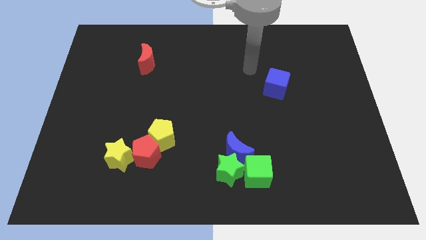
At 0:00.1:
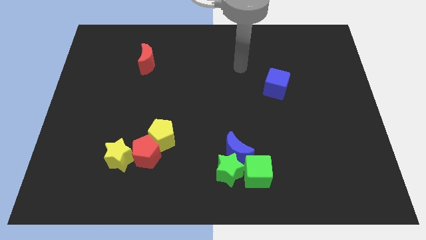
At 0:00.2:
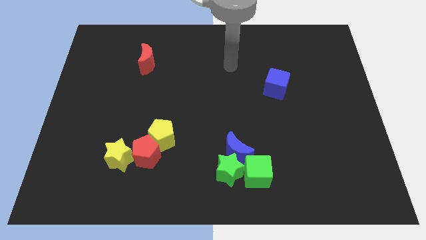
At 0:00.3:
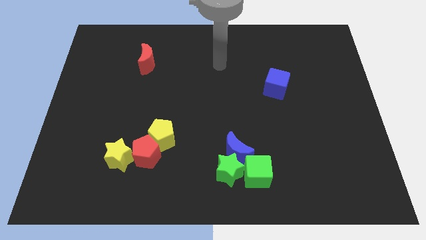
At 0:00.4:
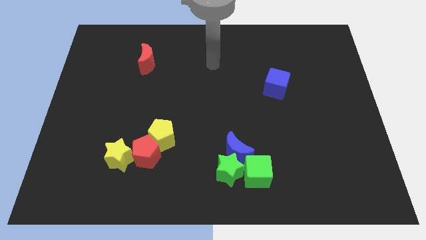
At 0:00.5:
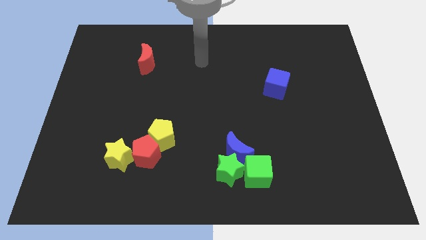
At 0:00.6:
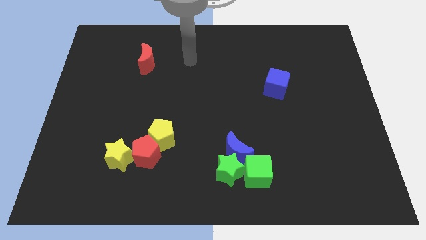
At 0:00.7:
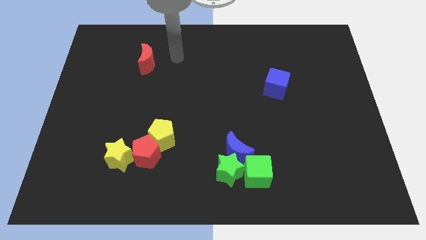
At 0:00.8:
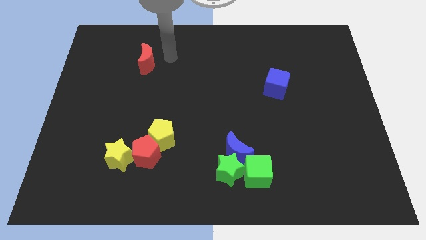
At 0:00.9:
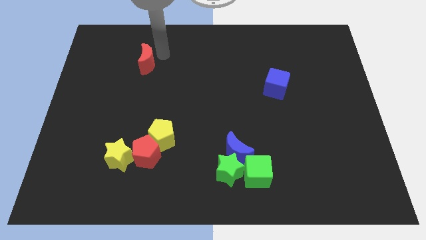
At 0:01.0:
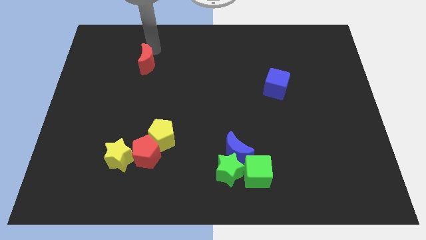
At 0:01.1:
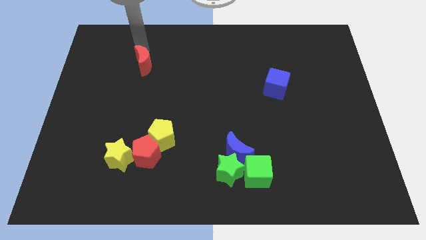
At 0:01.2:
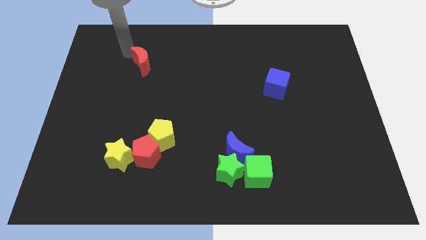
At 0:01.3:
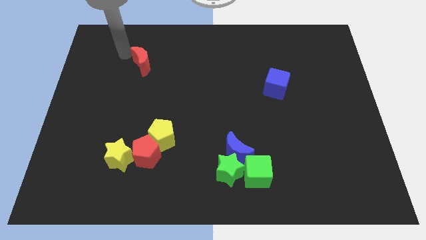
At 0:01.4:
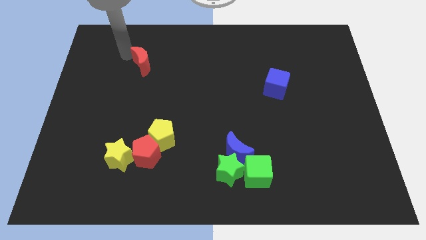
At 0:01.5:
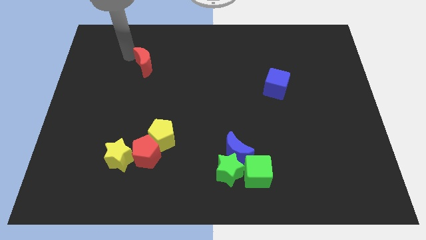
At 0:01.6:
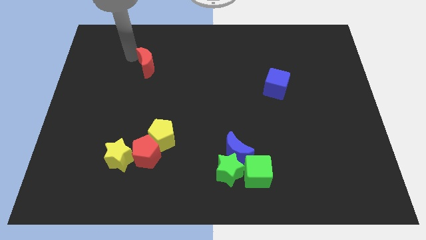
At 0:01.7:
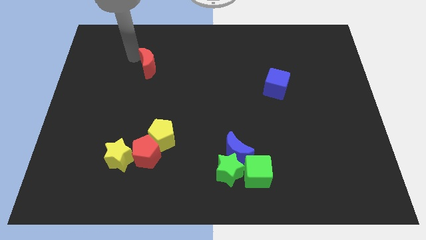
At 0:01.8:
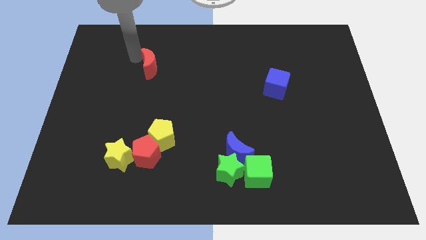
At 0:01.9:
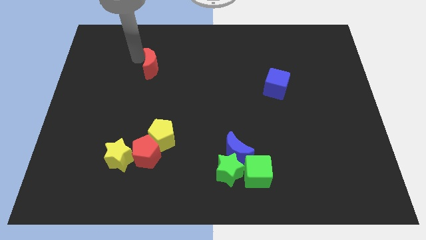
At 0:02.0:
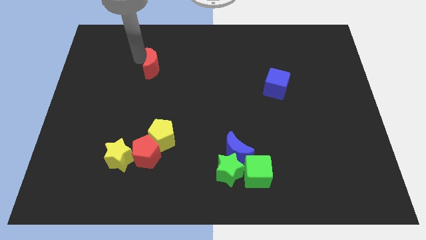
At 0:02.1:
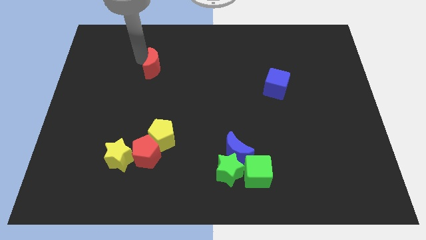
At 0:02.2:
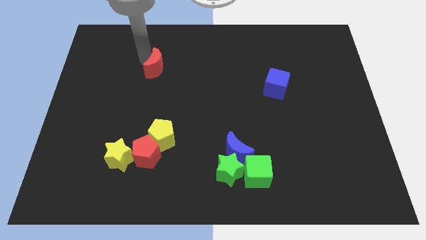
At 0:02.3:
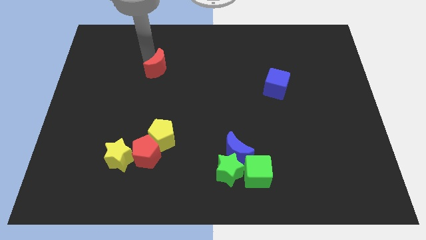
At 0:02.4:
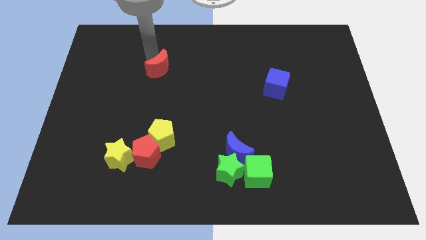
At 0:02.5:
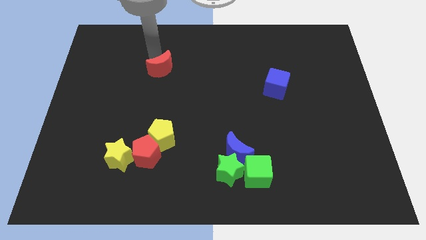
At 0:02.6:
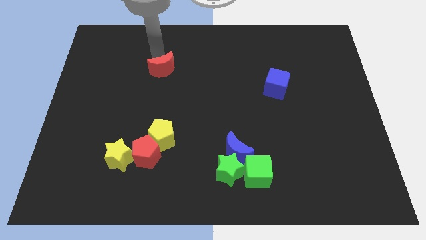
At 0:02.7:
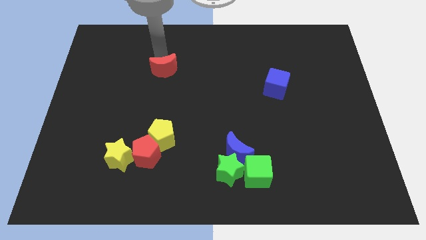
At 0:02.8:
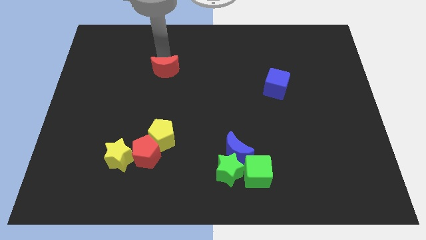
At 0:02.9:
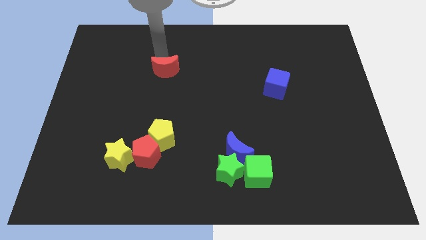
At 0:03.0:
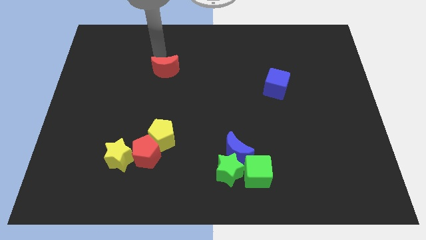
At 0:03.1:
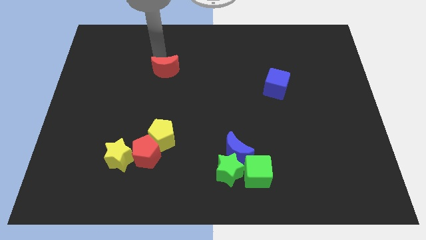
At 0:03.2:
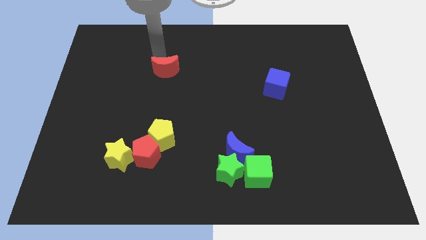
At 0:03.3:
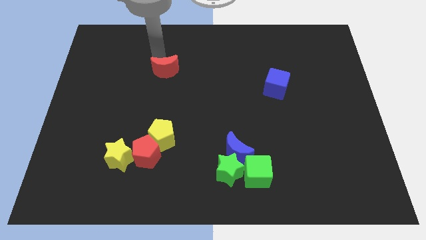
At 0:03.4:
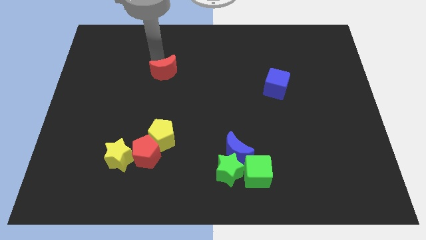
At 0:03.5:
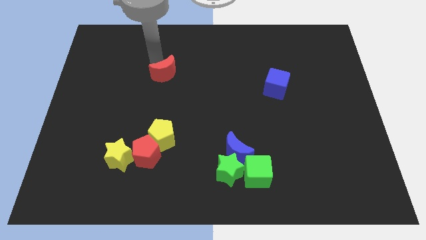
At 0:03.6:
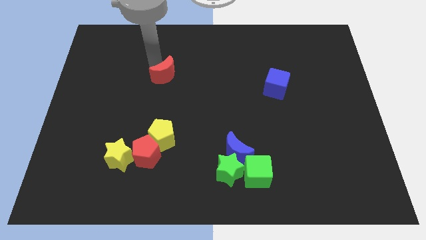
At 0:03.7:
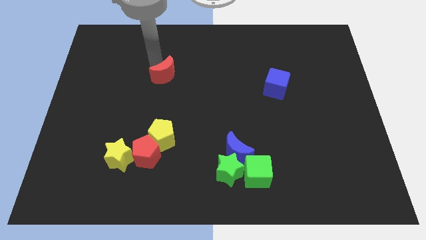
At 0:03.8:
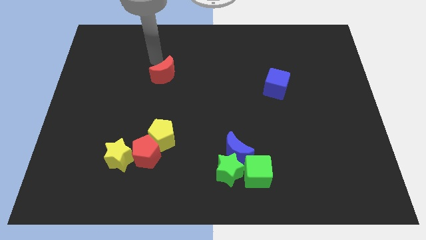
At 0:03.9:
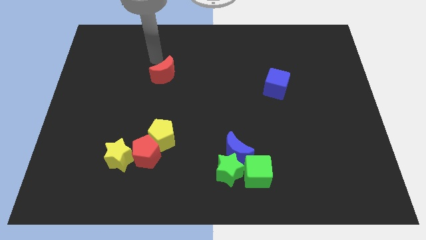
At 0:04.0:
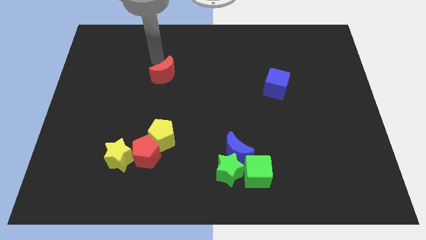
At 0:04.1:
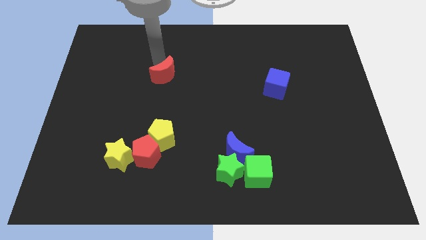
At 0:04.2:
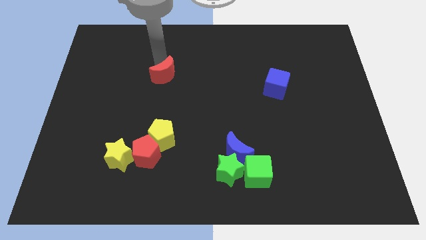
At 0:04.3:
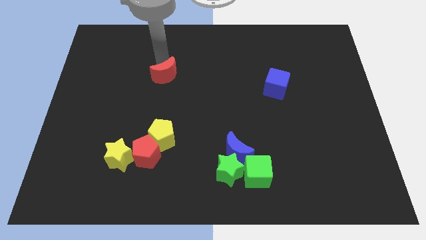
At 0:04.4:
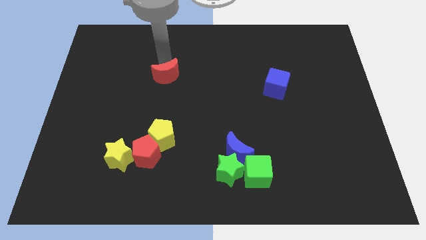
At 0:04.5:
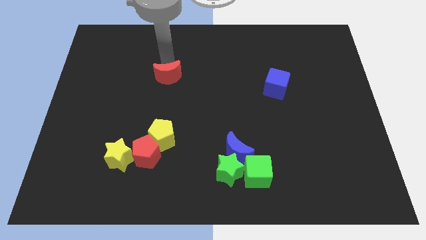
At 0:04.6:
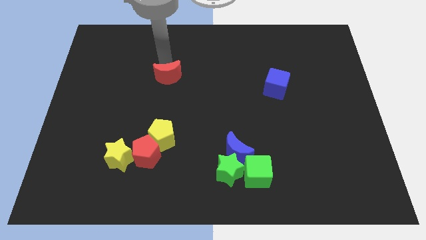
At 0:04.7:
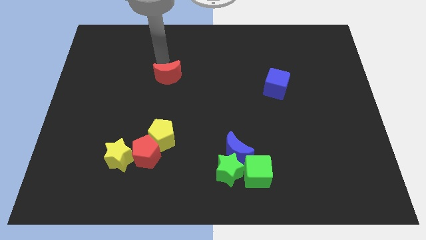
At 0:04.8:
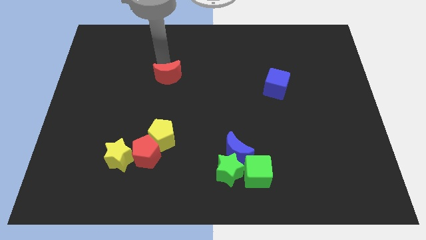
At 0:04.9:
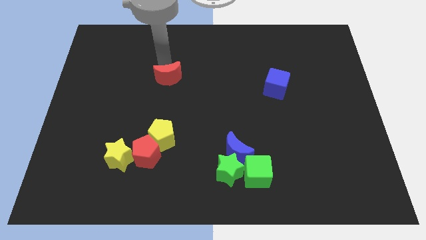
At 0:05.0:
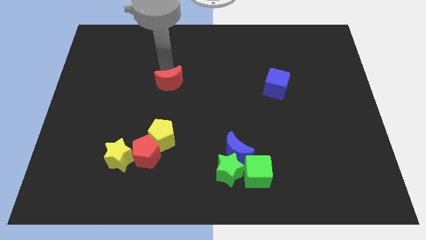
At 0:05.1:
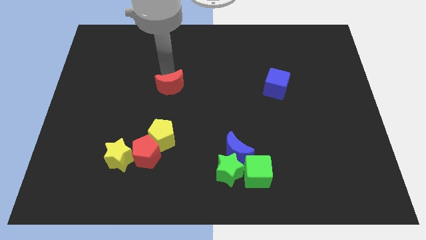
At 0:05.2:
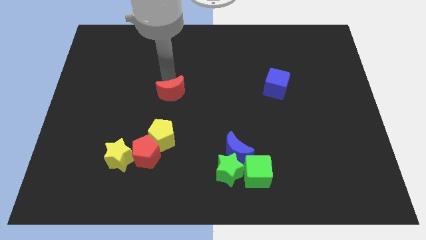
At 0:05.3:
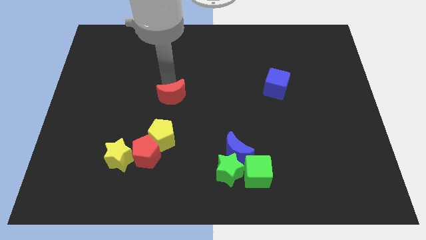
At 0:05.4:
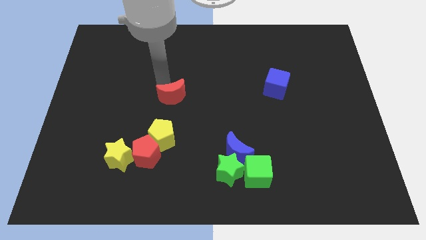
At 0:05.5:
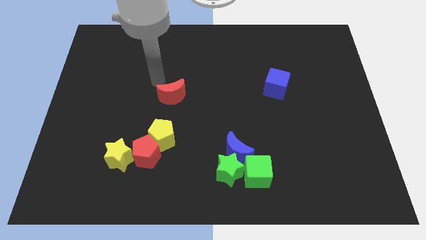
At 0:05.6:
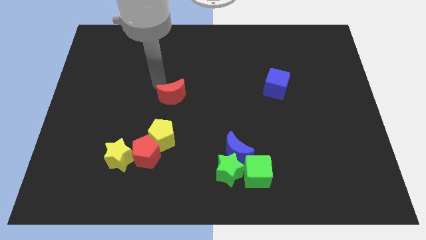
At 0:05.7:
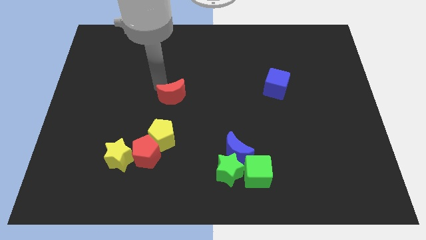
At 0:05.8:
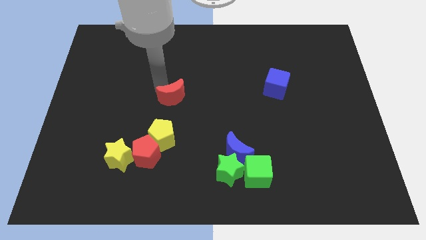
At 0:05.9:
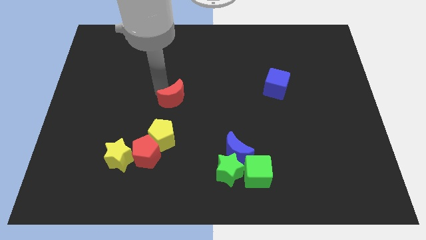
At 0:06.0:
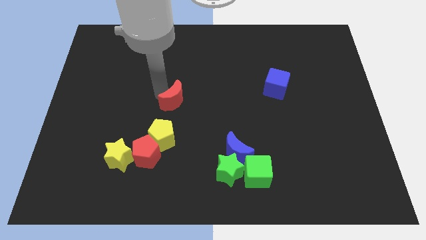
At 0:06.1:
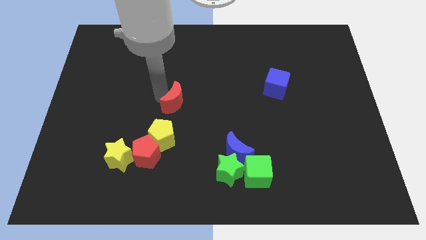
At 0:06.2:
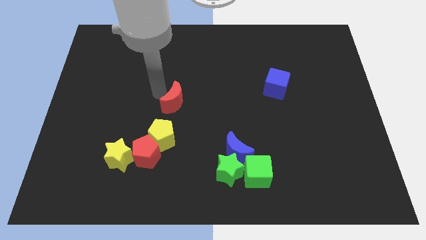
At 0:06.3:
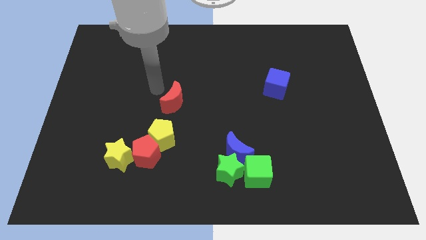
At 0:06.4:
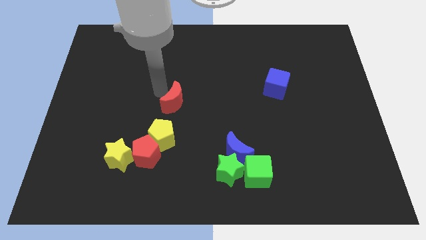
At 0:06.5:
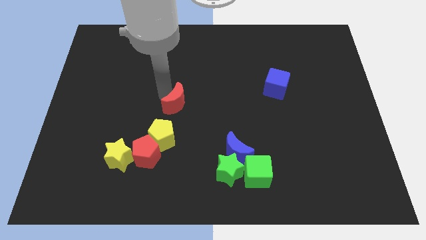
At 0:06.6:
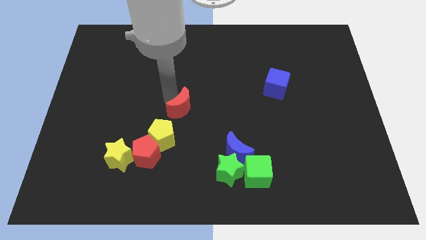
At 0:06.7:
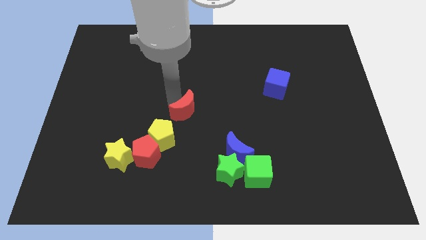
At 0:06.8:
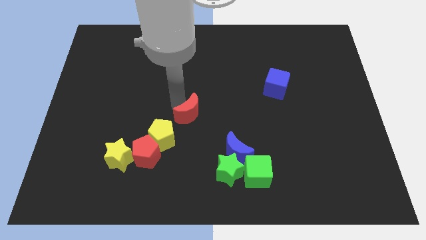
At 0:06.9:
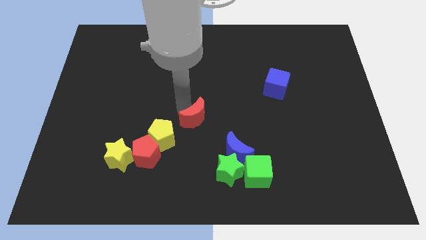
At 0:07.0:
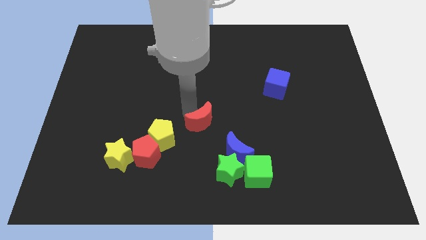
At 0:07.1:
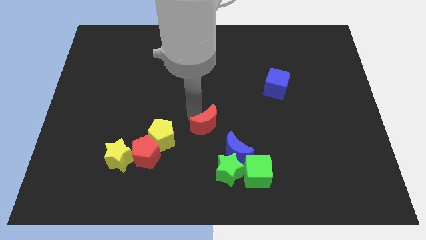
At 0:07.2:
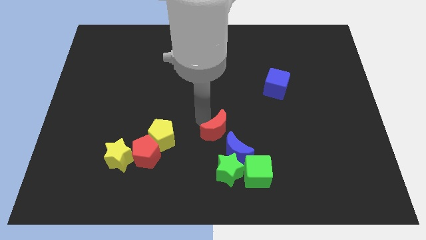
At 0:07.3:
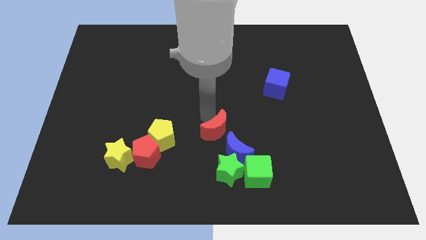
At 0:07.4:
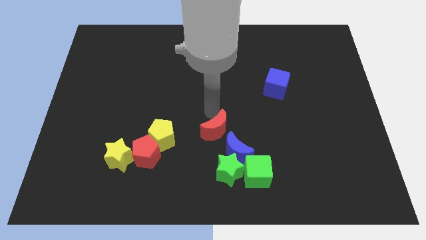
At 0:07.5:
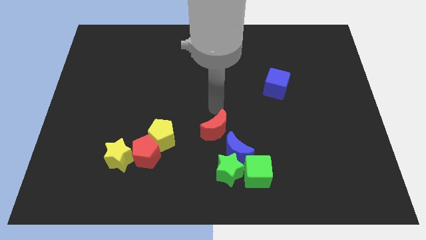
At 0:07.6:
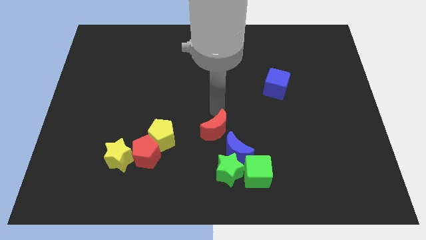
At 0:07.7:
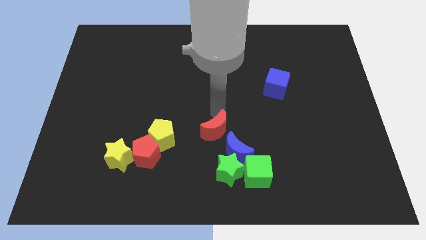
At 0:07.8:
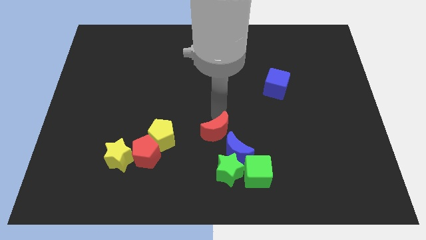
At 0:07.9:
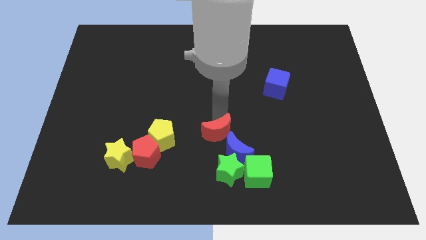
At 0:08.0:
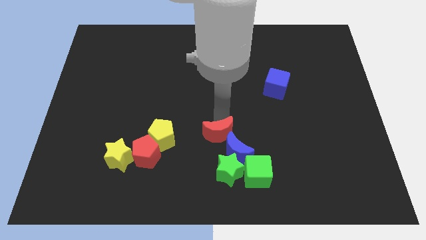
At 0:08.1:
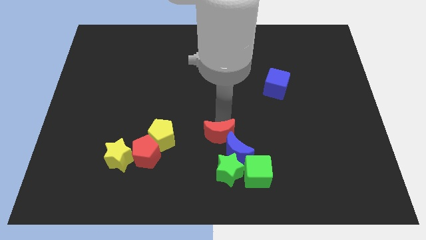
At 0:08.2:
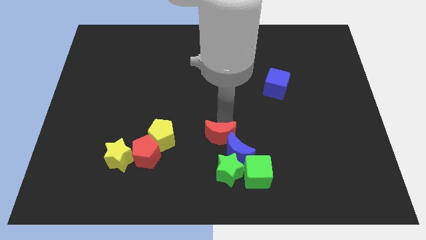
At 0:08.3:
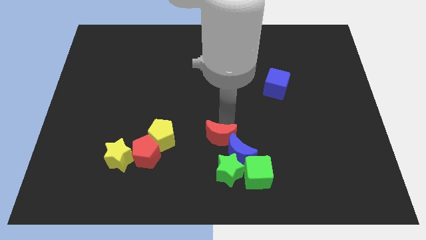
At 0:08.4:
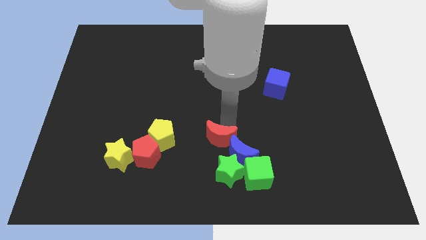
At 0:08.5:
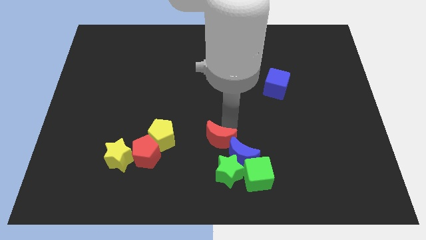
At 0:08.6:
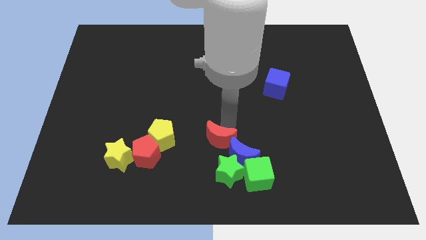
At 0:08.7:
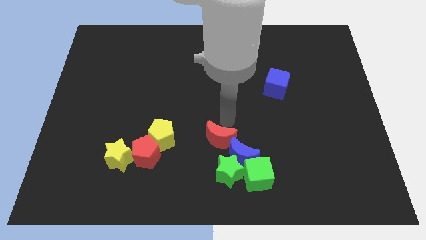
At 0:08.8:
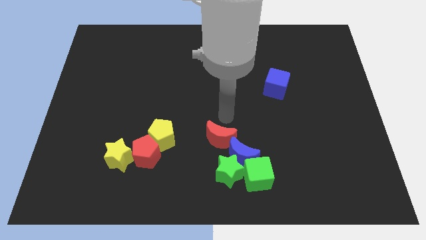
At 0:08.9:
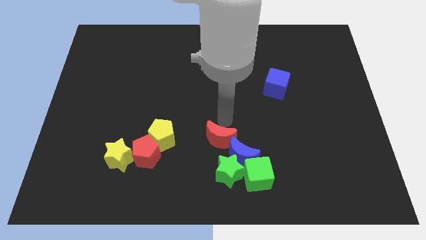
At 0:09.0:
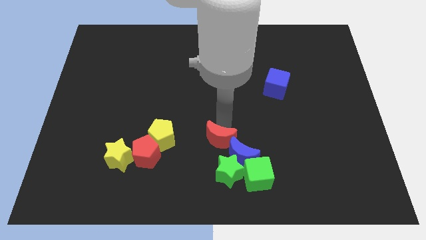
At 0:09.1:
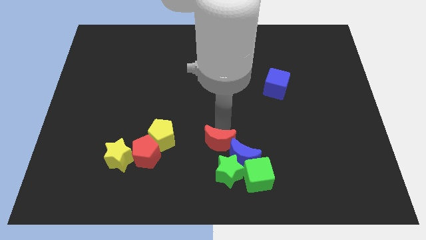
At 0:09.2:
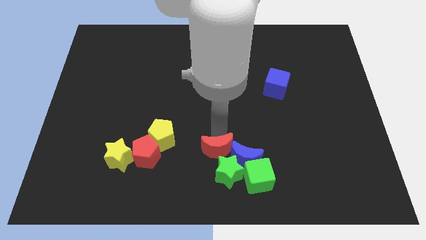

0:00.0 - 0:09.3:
push the red moon close to the green star
